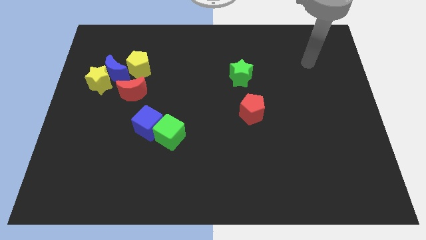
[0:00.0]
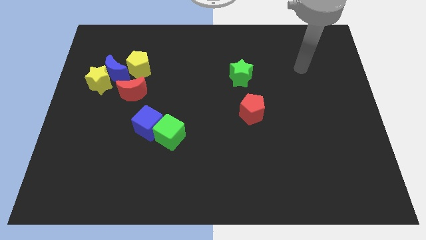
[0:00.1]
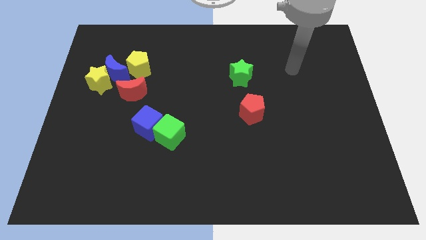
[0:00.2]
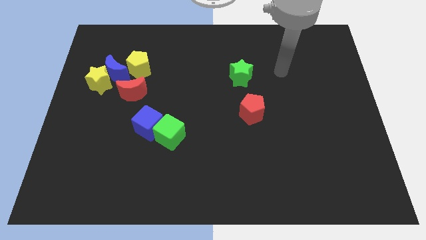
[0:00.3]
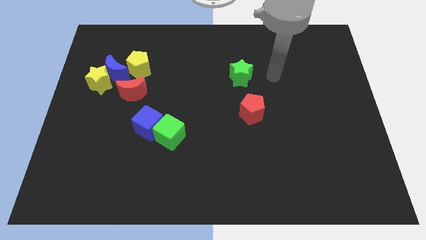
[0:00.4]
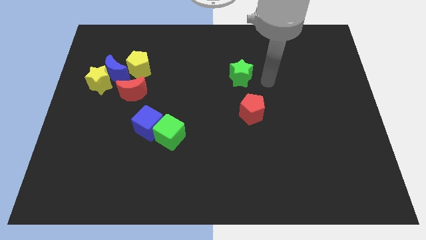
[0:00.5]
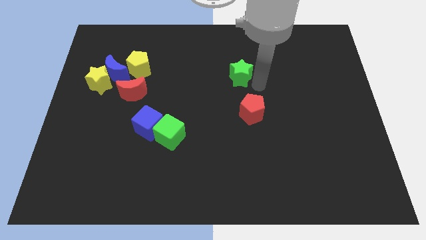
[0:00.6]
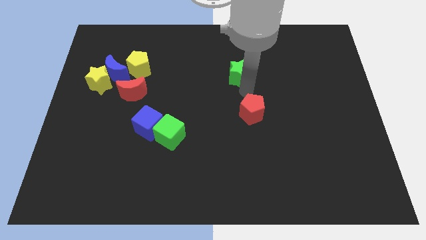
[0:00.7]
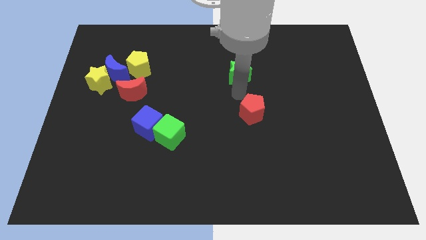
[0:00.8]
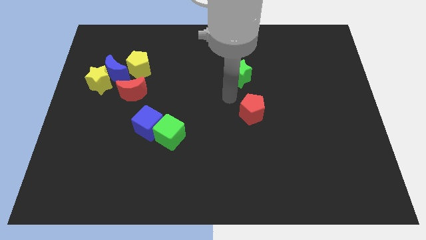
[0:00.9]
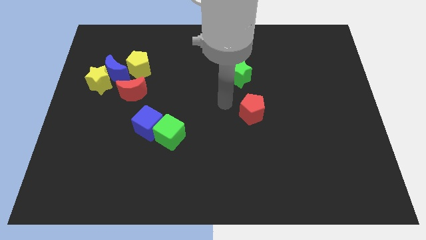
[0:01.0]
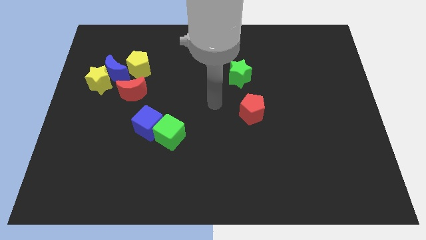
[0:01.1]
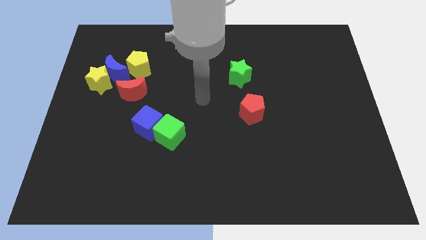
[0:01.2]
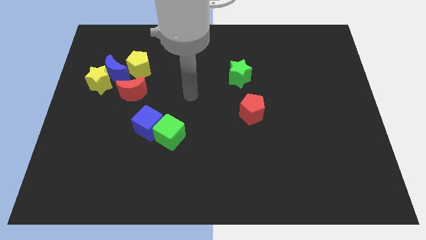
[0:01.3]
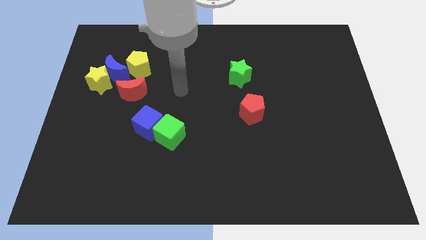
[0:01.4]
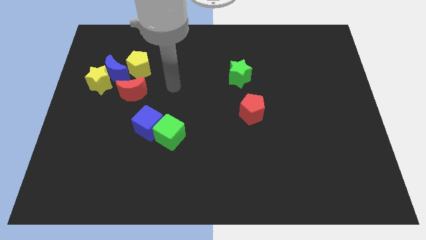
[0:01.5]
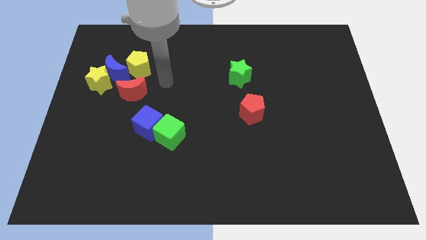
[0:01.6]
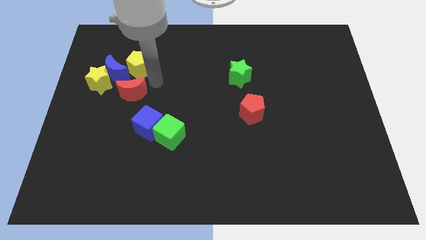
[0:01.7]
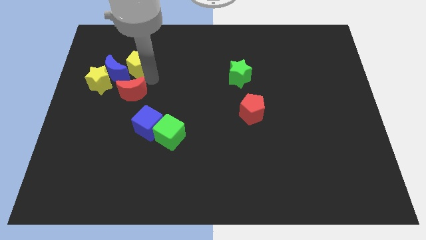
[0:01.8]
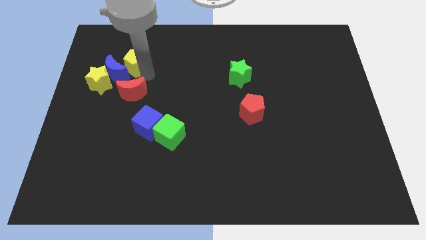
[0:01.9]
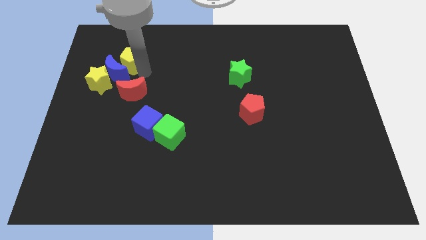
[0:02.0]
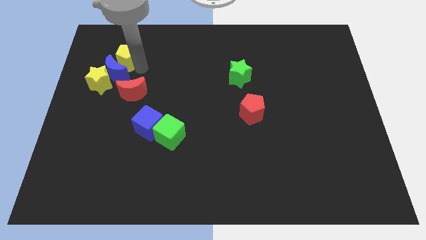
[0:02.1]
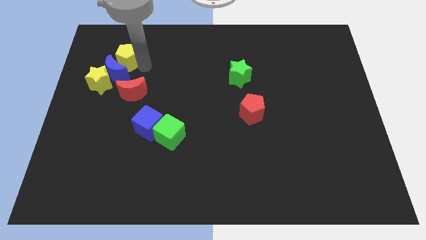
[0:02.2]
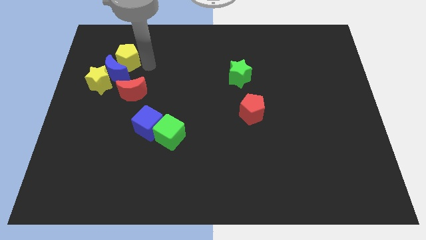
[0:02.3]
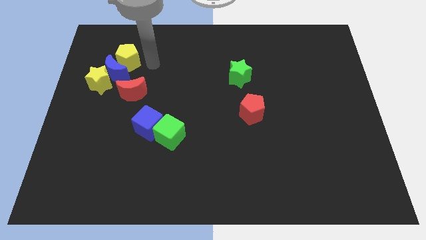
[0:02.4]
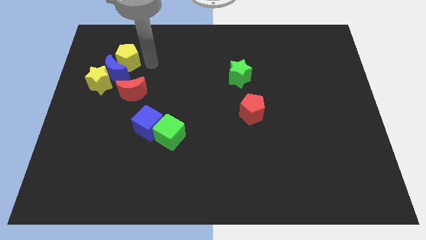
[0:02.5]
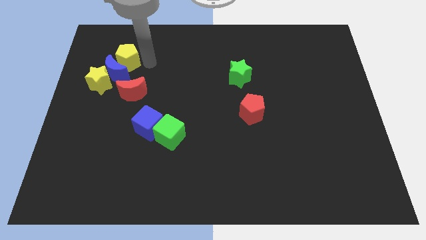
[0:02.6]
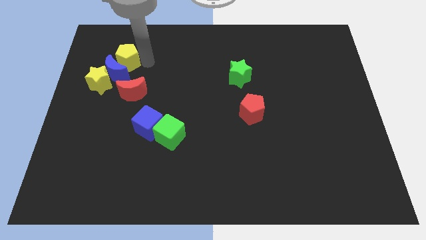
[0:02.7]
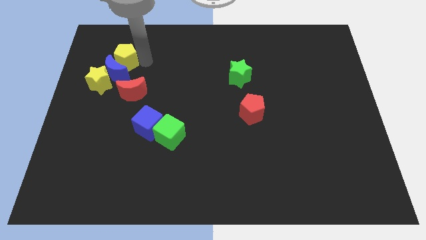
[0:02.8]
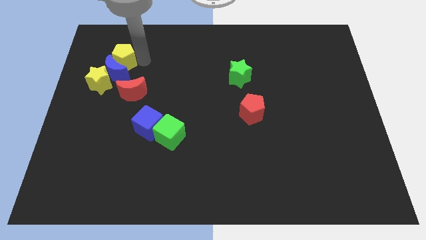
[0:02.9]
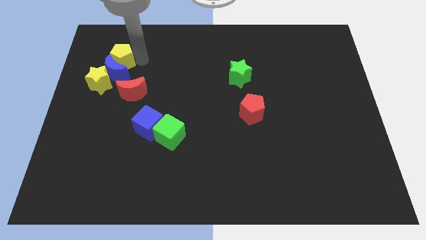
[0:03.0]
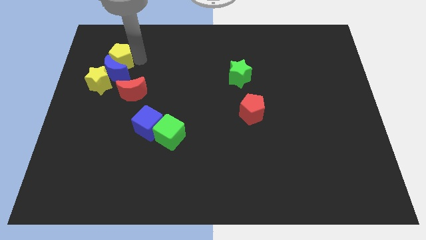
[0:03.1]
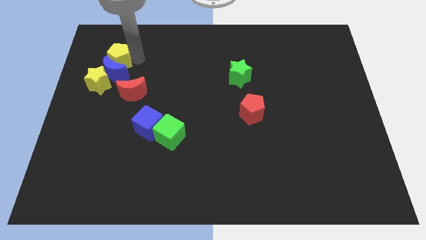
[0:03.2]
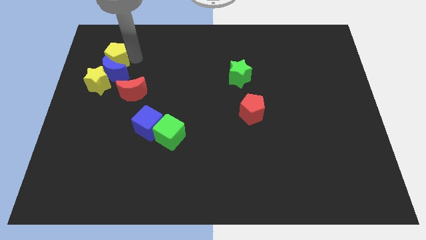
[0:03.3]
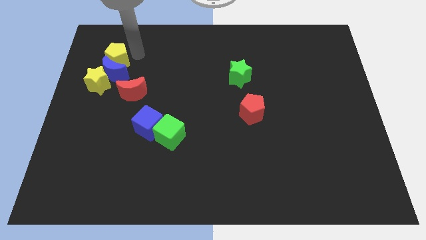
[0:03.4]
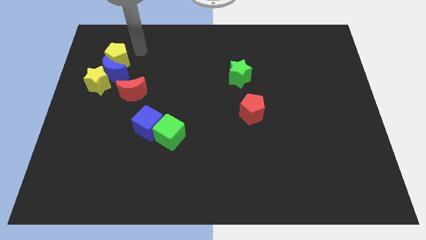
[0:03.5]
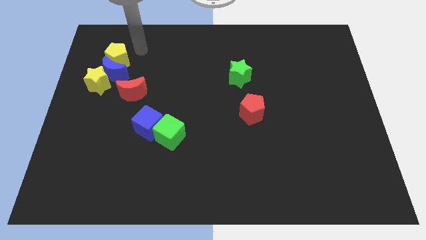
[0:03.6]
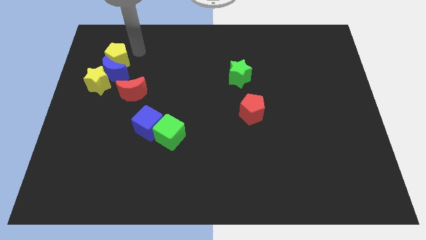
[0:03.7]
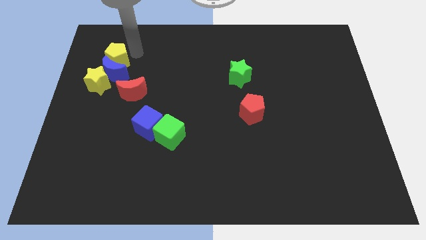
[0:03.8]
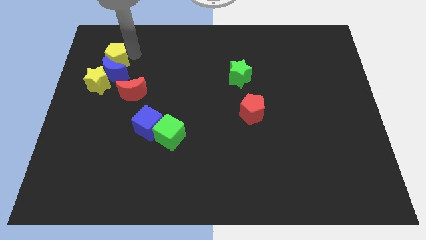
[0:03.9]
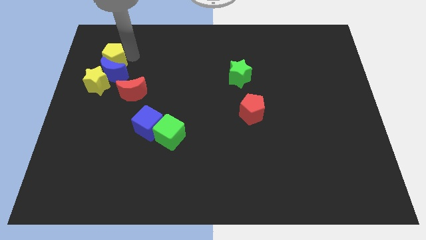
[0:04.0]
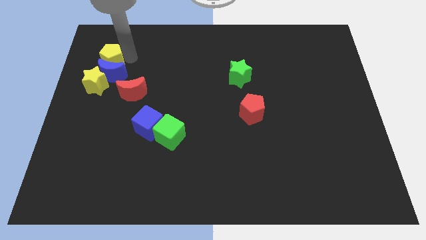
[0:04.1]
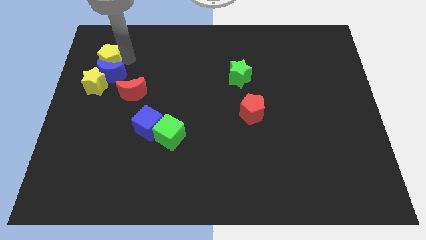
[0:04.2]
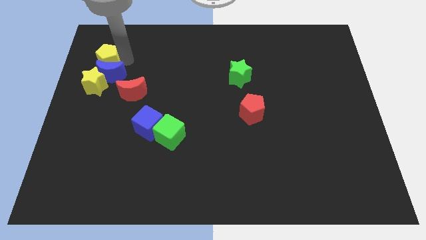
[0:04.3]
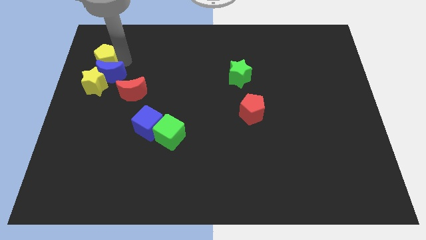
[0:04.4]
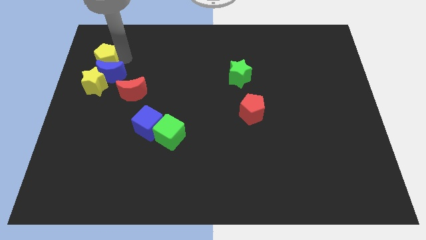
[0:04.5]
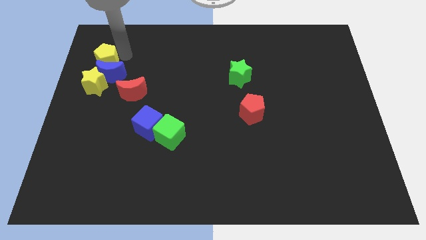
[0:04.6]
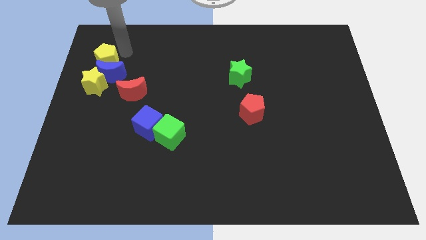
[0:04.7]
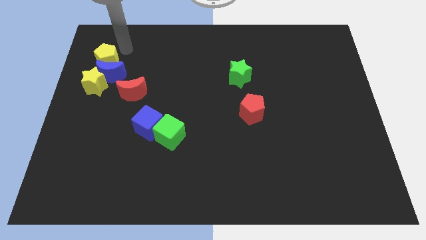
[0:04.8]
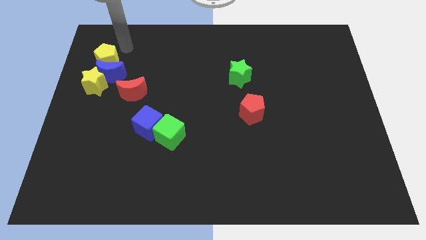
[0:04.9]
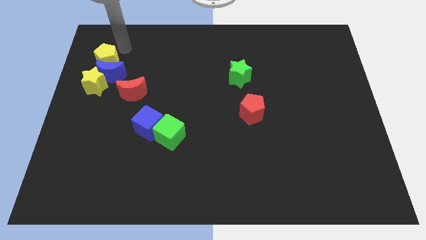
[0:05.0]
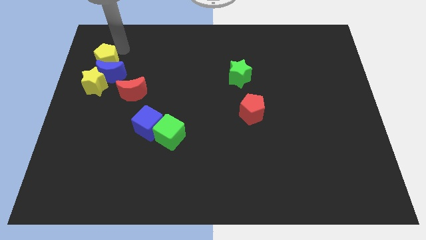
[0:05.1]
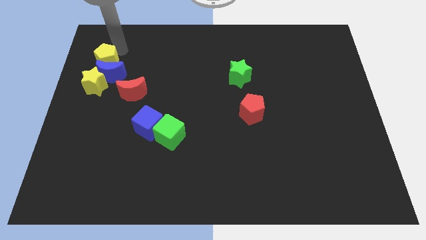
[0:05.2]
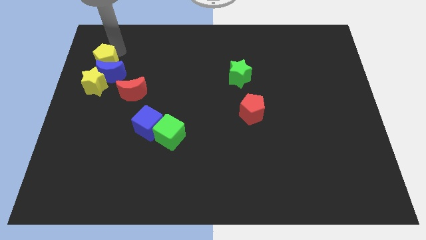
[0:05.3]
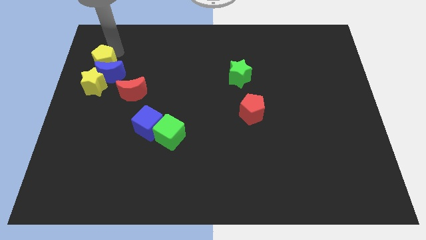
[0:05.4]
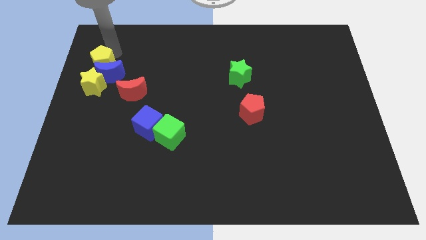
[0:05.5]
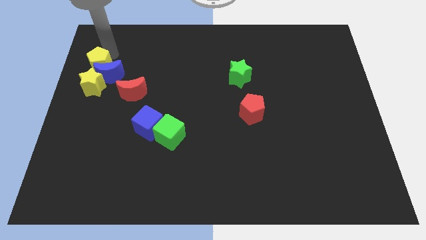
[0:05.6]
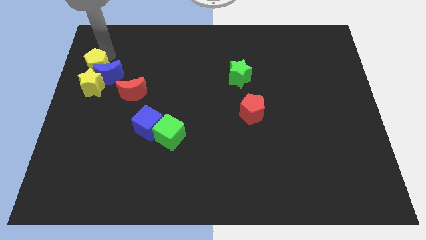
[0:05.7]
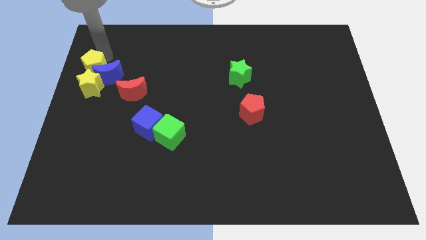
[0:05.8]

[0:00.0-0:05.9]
move the yellow pentagon to the left side of the board

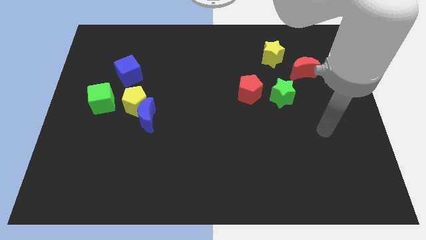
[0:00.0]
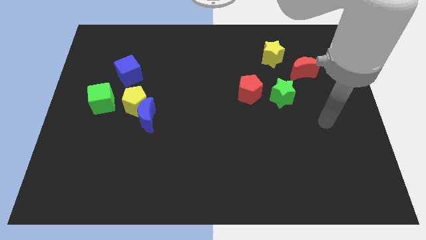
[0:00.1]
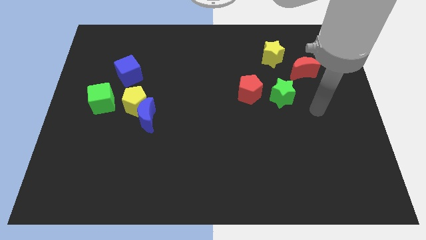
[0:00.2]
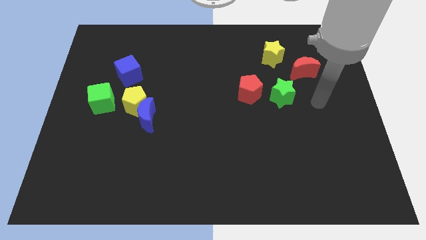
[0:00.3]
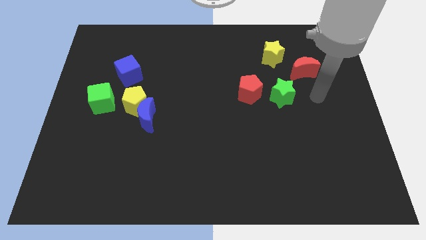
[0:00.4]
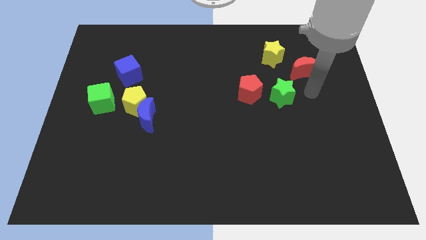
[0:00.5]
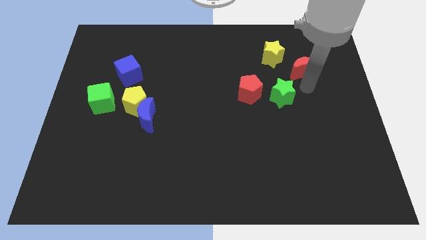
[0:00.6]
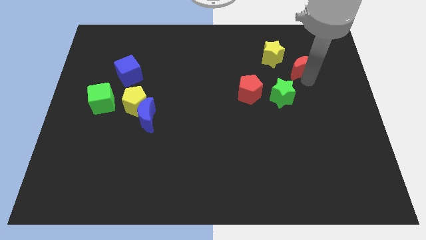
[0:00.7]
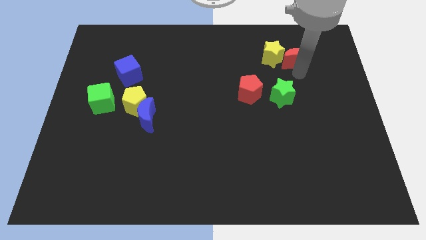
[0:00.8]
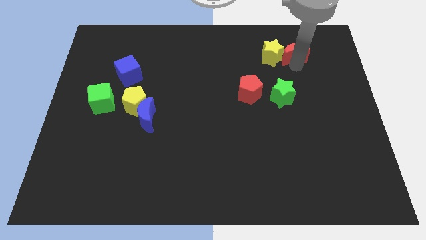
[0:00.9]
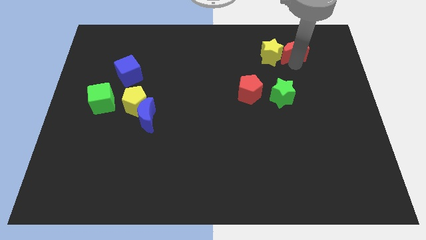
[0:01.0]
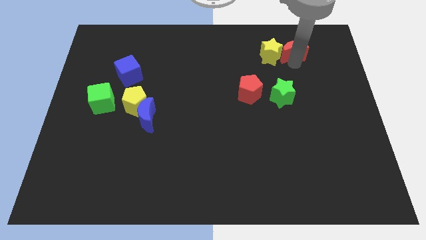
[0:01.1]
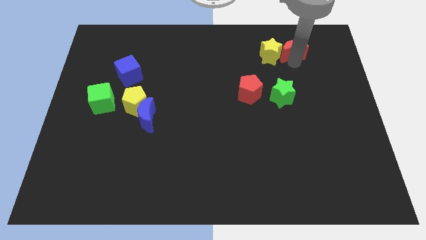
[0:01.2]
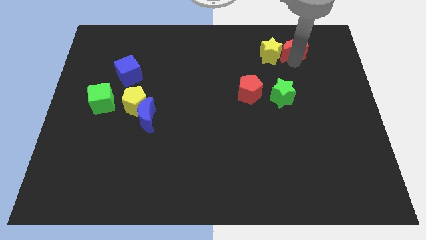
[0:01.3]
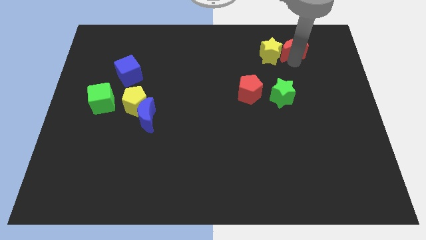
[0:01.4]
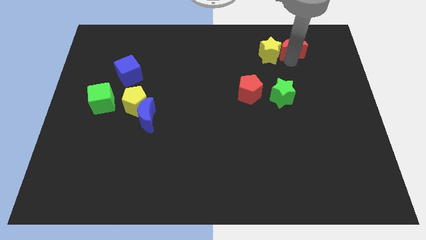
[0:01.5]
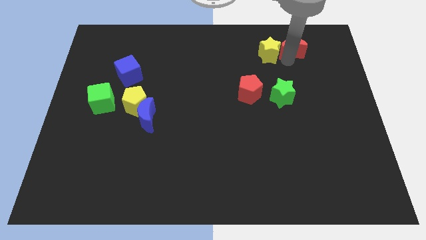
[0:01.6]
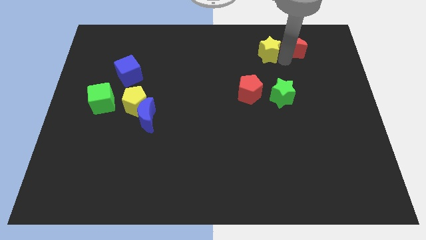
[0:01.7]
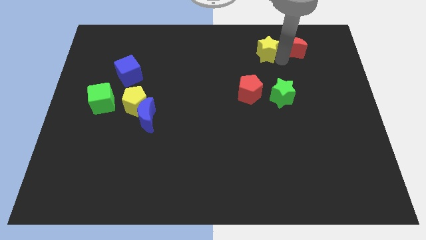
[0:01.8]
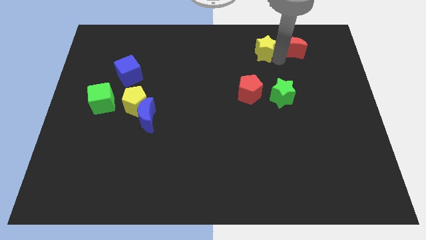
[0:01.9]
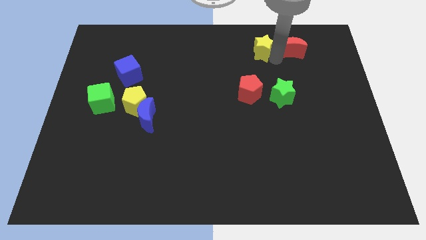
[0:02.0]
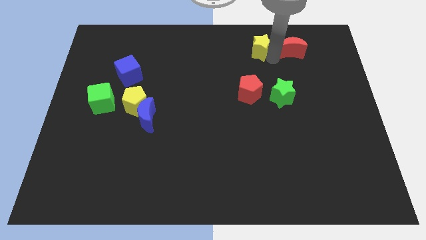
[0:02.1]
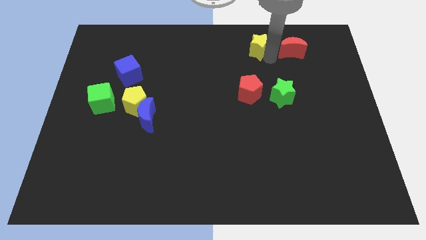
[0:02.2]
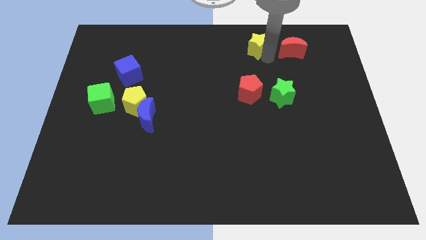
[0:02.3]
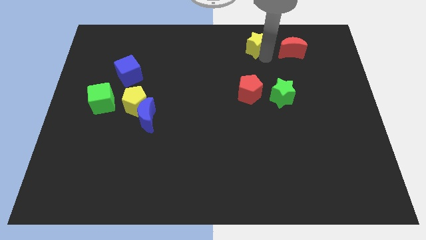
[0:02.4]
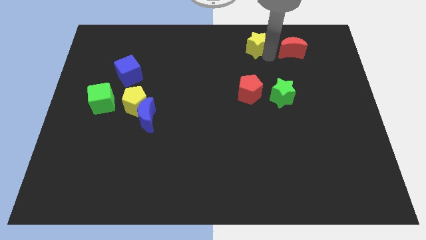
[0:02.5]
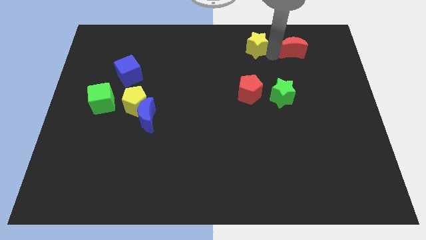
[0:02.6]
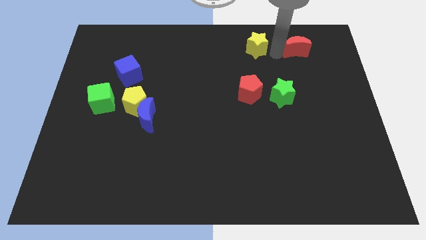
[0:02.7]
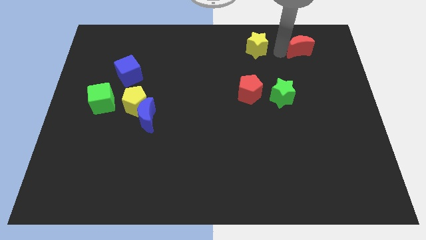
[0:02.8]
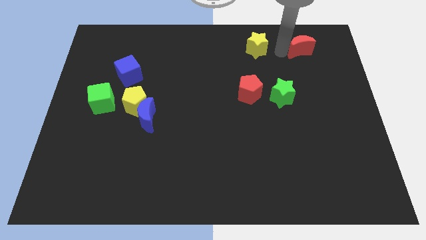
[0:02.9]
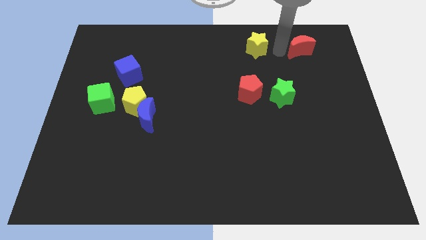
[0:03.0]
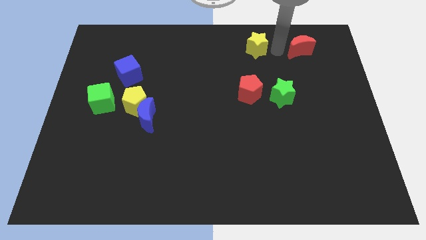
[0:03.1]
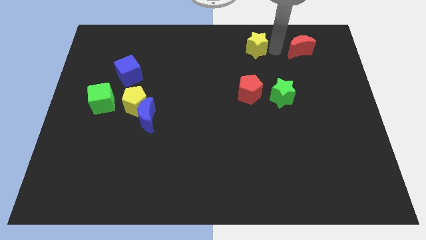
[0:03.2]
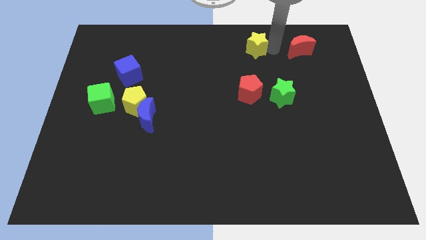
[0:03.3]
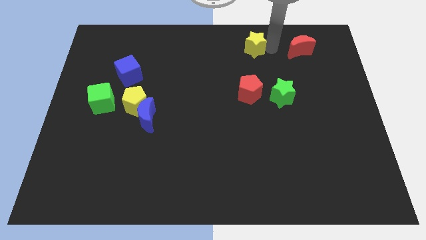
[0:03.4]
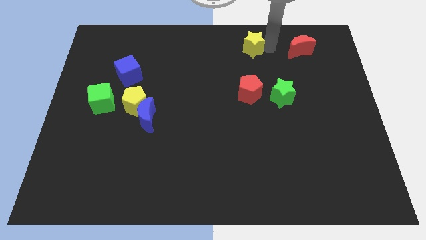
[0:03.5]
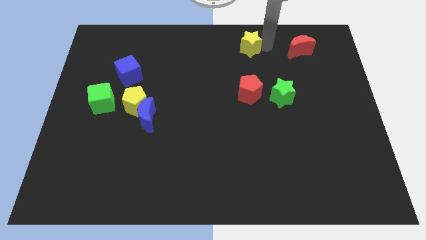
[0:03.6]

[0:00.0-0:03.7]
move the yellow star to the towards your base
